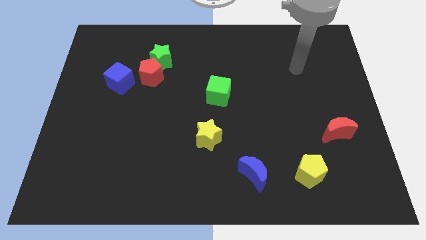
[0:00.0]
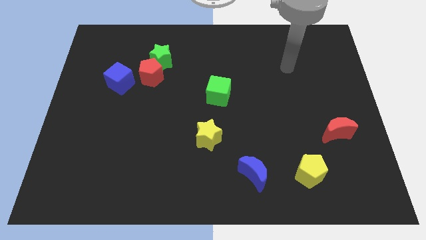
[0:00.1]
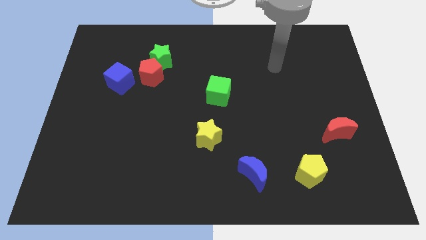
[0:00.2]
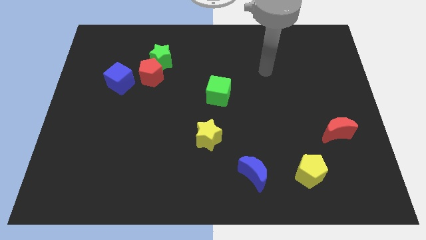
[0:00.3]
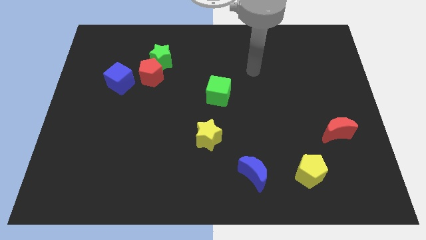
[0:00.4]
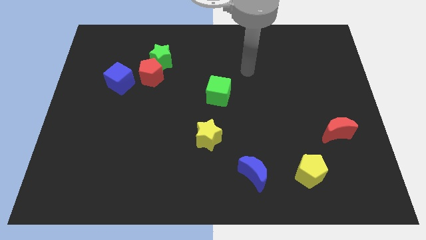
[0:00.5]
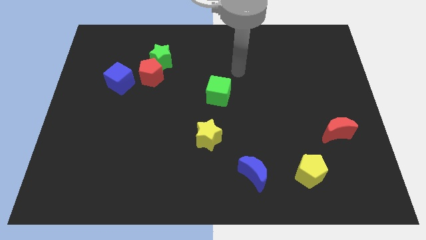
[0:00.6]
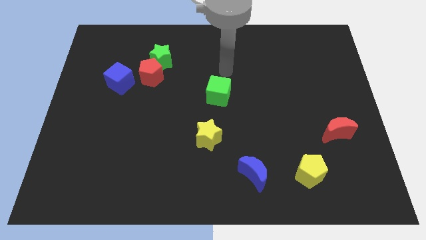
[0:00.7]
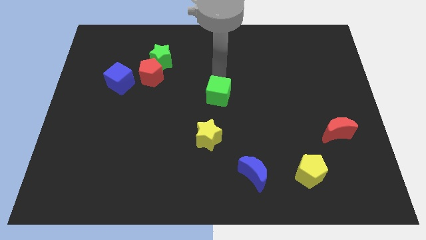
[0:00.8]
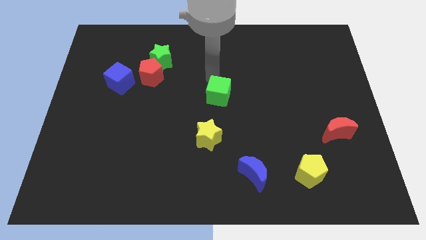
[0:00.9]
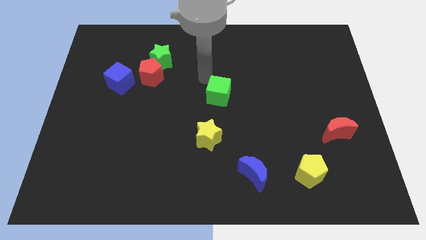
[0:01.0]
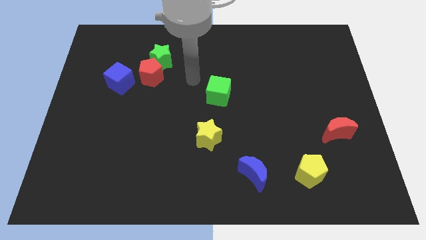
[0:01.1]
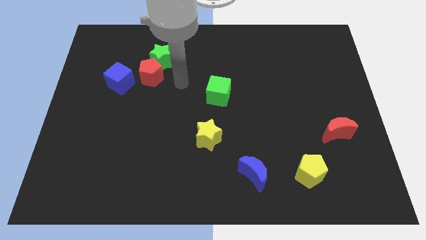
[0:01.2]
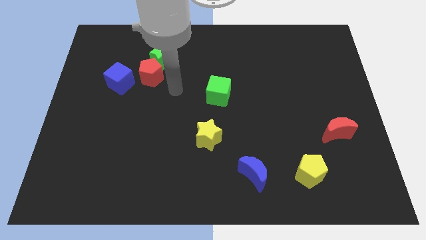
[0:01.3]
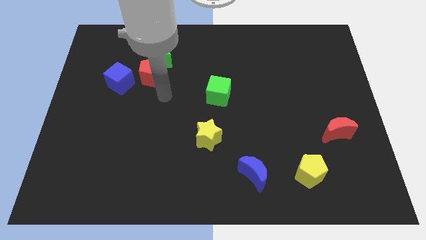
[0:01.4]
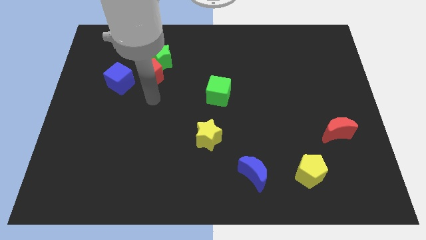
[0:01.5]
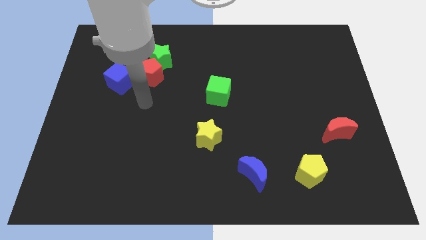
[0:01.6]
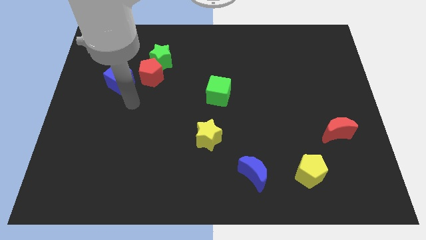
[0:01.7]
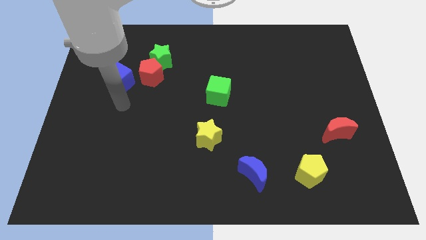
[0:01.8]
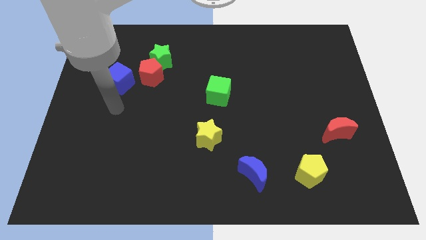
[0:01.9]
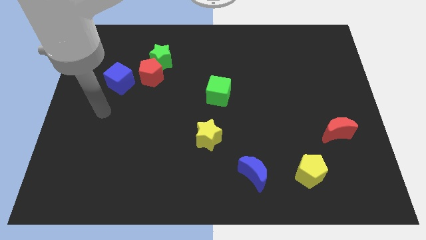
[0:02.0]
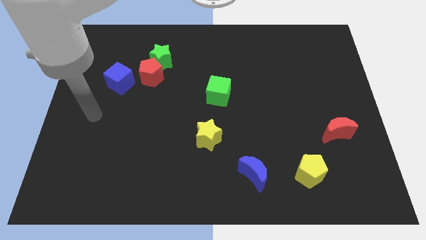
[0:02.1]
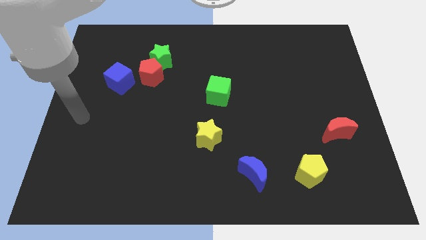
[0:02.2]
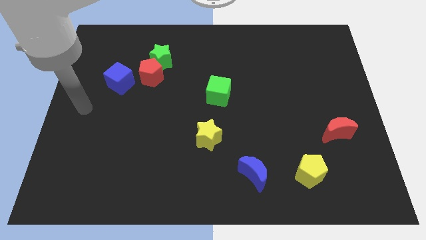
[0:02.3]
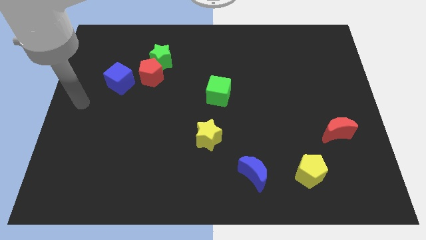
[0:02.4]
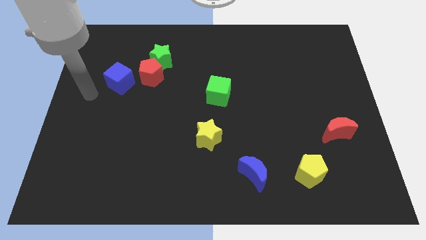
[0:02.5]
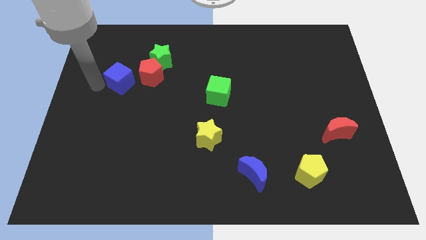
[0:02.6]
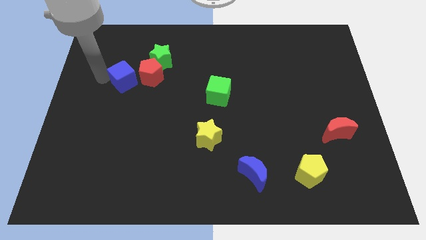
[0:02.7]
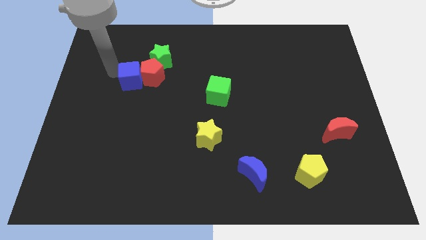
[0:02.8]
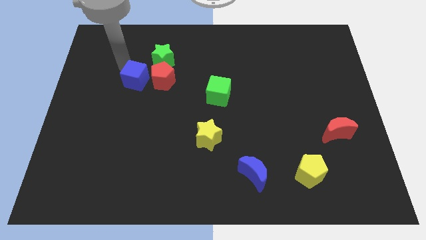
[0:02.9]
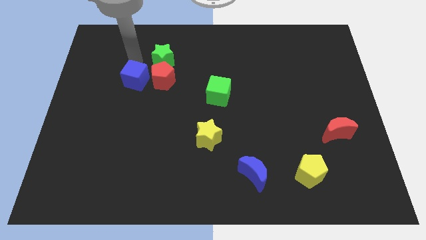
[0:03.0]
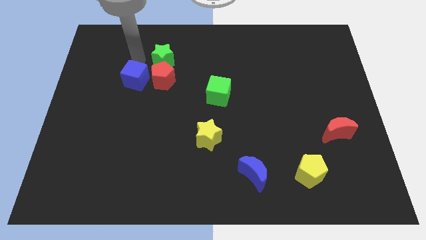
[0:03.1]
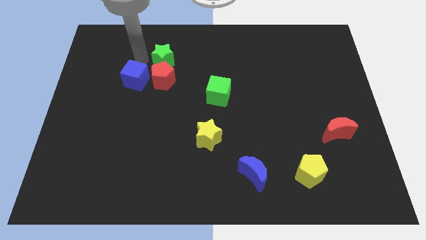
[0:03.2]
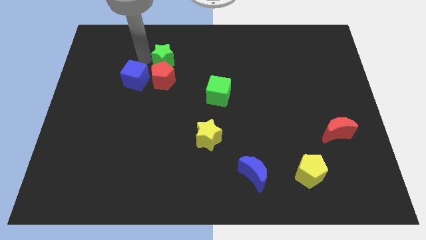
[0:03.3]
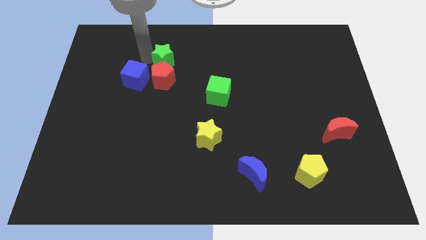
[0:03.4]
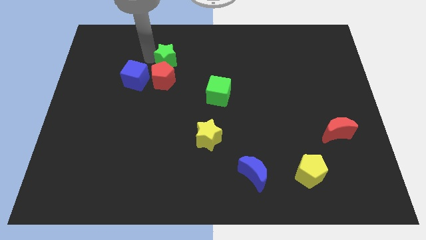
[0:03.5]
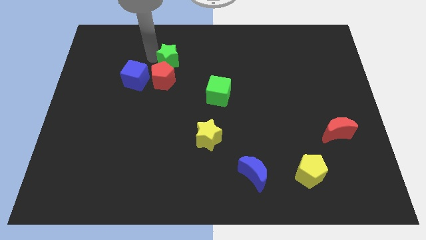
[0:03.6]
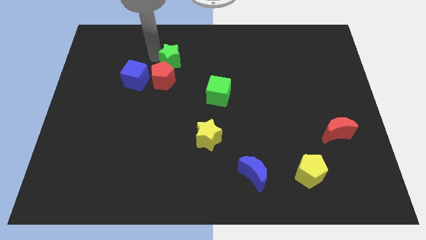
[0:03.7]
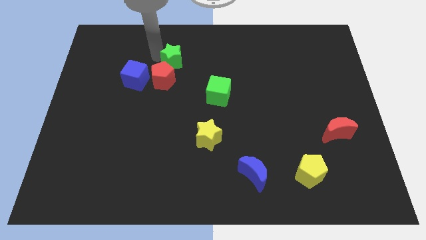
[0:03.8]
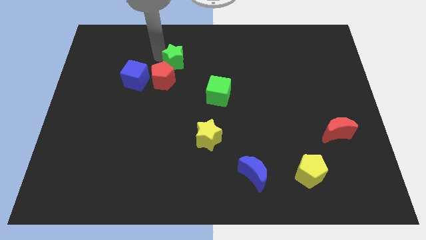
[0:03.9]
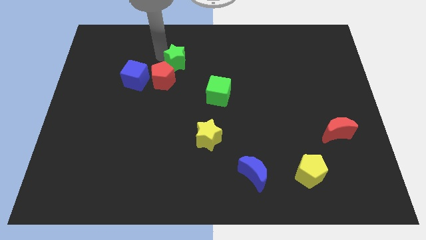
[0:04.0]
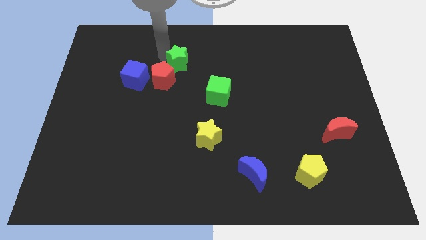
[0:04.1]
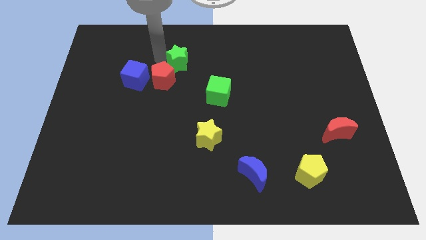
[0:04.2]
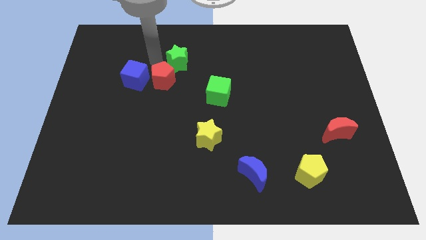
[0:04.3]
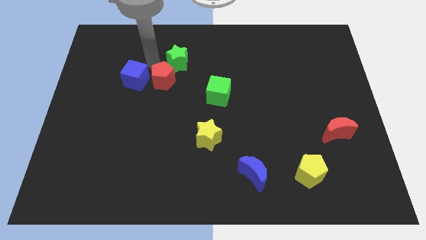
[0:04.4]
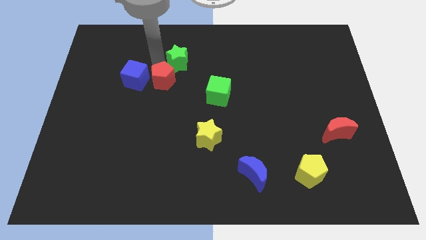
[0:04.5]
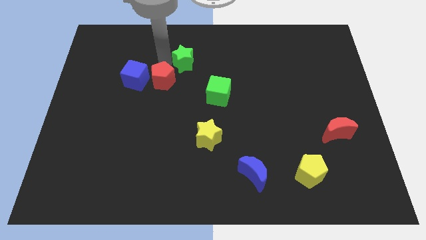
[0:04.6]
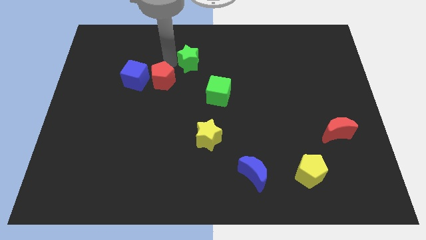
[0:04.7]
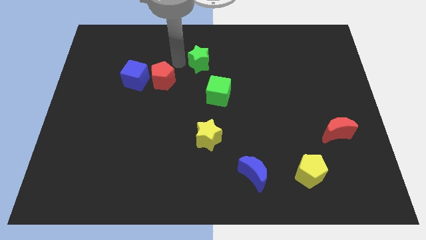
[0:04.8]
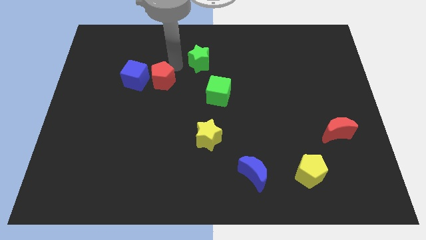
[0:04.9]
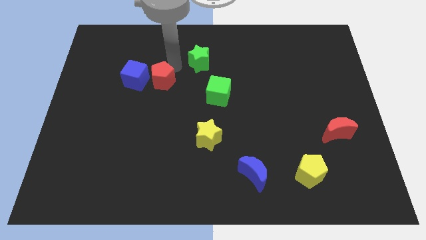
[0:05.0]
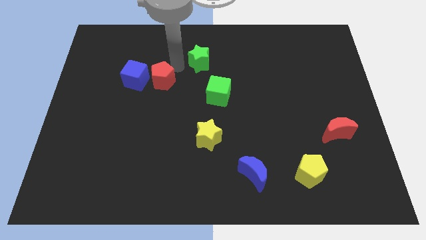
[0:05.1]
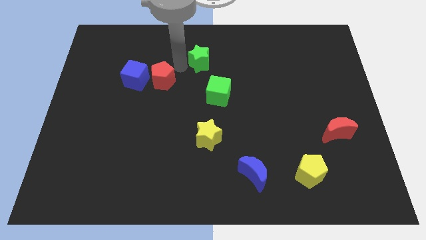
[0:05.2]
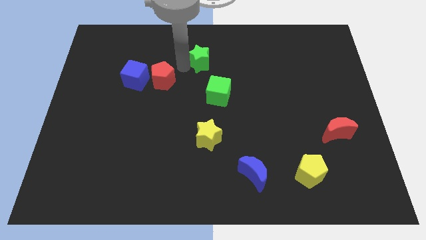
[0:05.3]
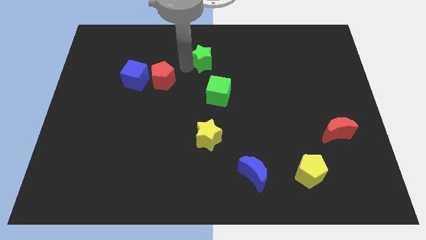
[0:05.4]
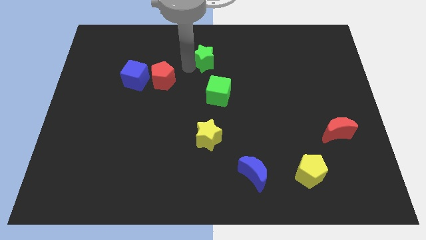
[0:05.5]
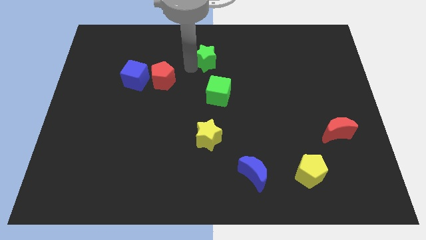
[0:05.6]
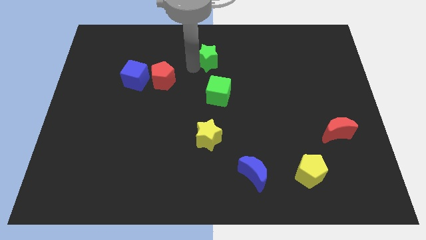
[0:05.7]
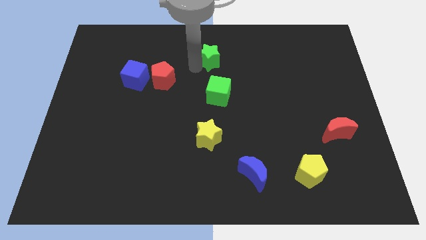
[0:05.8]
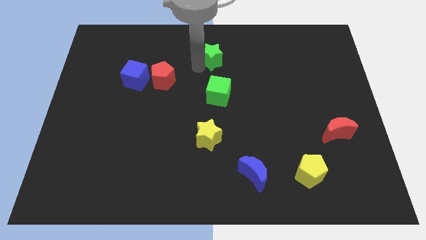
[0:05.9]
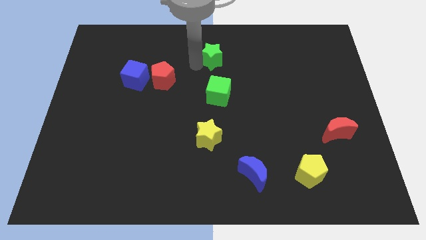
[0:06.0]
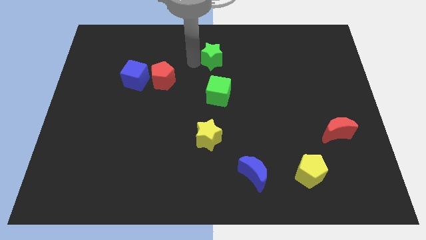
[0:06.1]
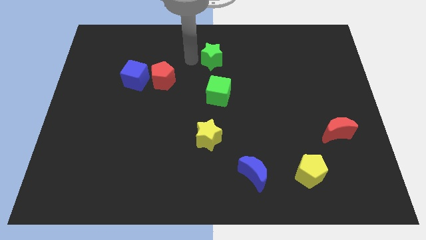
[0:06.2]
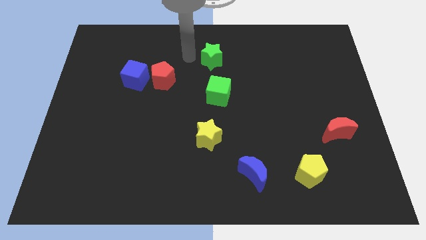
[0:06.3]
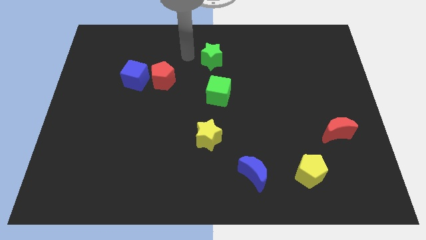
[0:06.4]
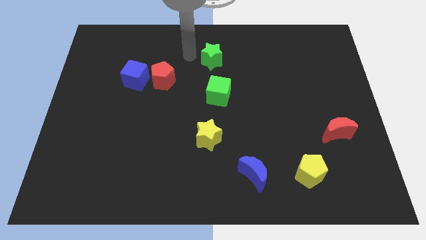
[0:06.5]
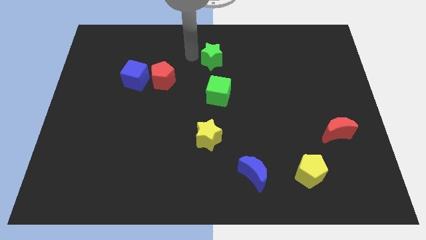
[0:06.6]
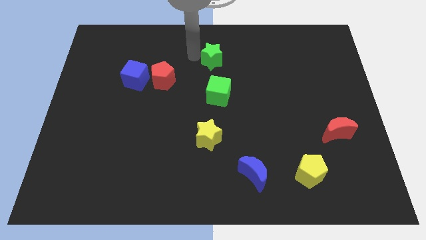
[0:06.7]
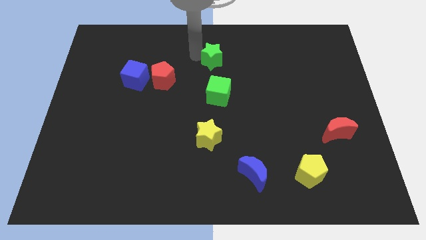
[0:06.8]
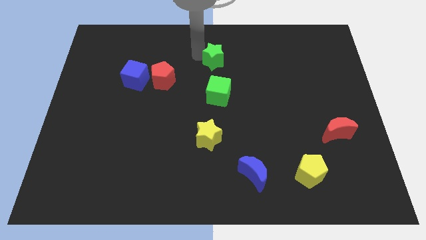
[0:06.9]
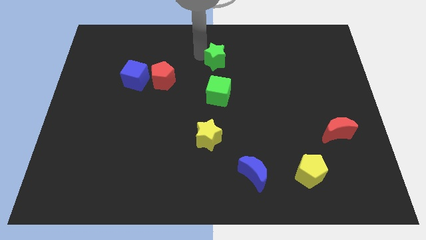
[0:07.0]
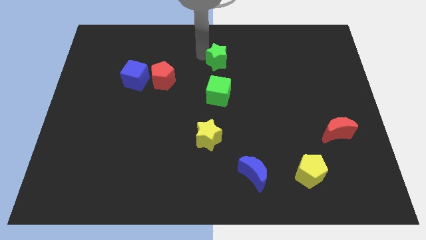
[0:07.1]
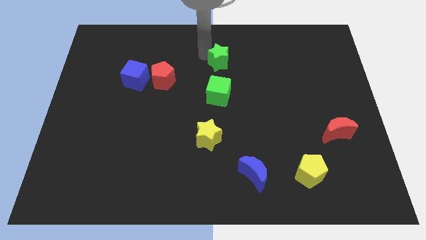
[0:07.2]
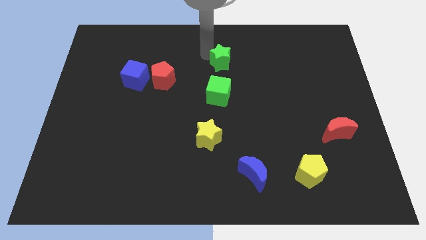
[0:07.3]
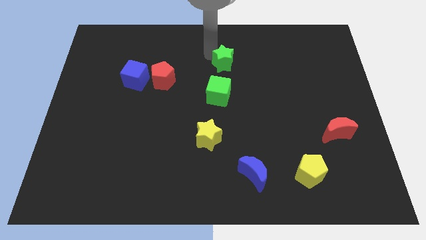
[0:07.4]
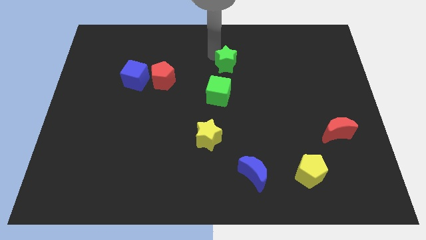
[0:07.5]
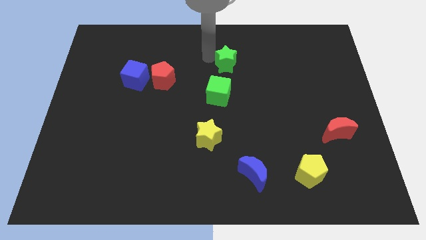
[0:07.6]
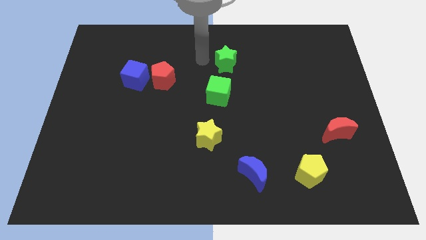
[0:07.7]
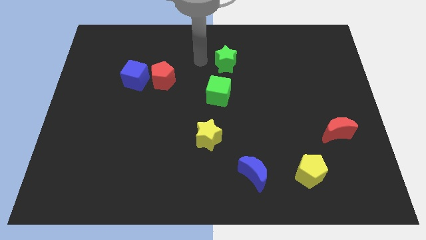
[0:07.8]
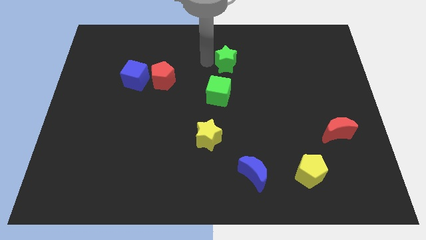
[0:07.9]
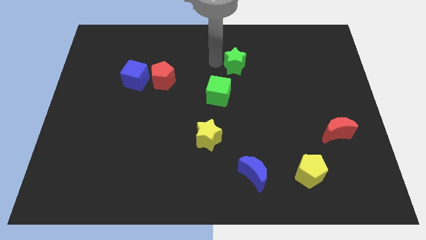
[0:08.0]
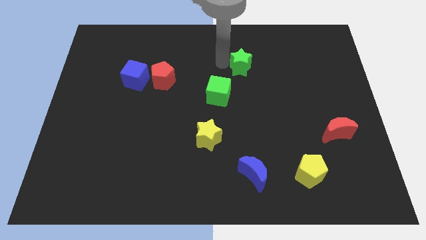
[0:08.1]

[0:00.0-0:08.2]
push the green star right

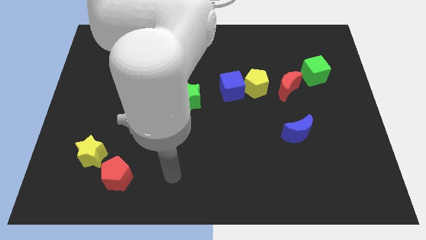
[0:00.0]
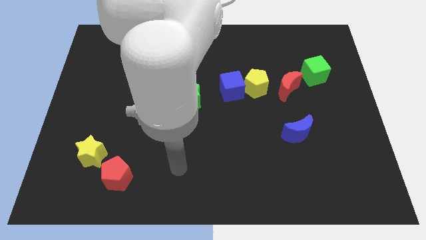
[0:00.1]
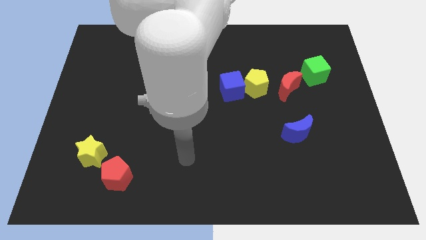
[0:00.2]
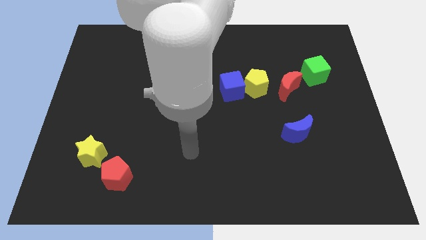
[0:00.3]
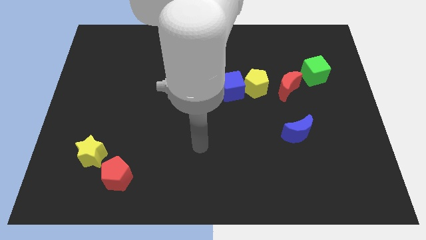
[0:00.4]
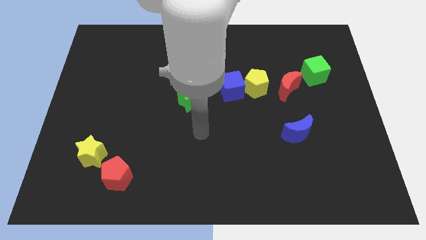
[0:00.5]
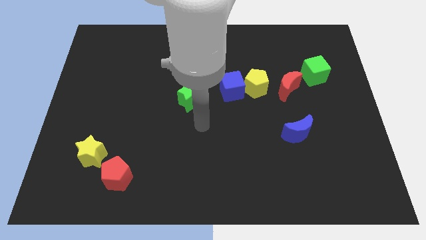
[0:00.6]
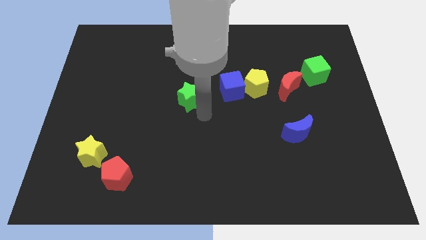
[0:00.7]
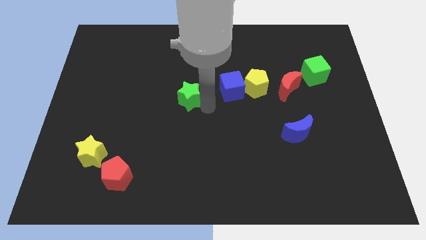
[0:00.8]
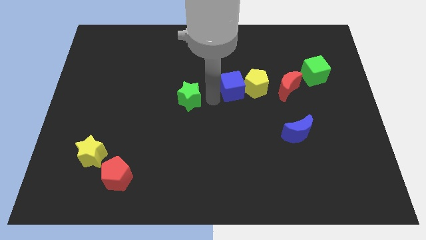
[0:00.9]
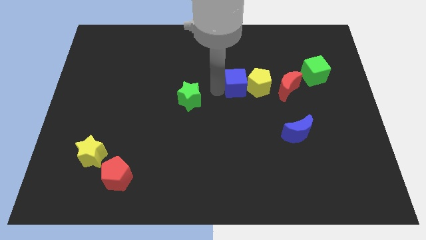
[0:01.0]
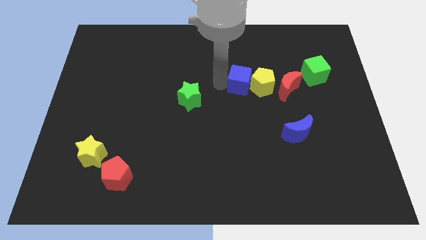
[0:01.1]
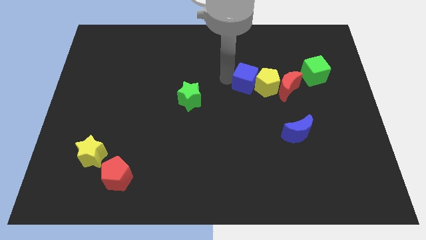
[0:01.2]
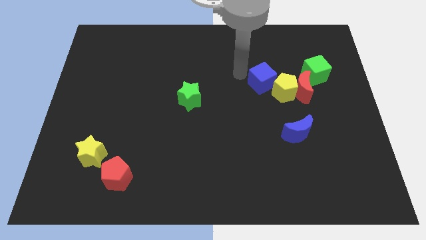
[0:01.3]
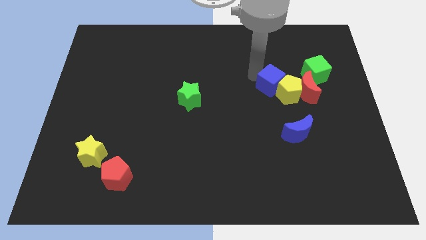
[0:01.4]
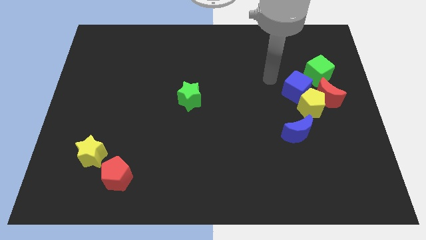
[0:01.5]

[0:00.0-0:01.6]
slightly move the yellow pentagon downwards and right diagonally
